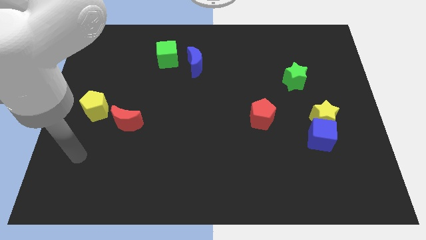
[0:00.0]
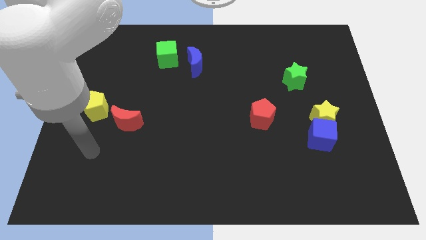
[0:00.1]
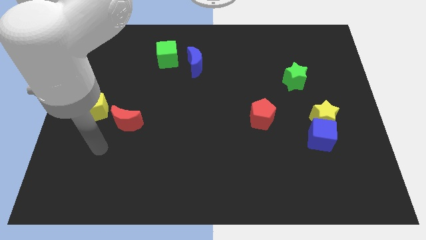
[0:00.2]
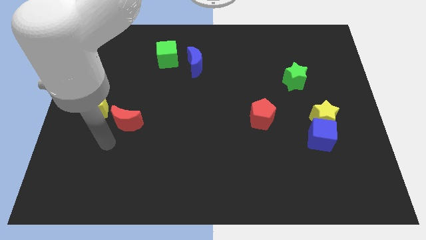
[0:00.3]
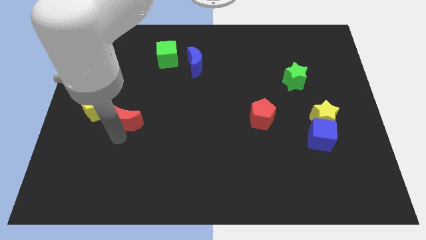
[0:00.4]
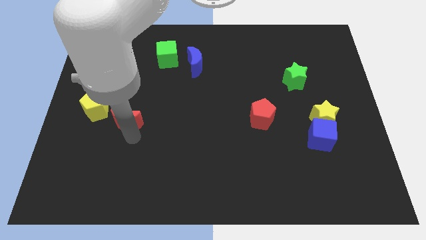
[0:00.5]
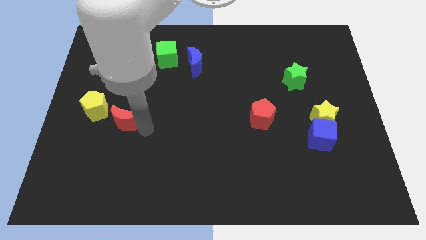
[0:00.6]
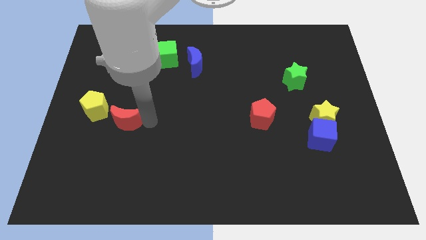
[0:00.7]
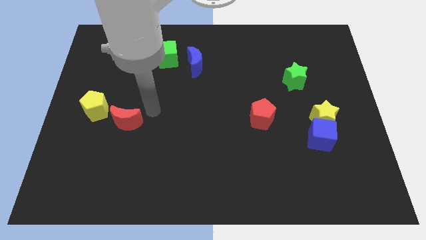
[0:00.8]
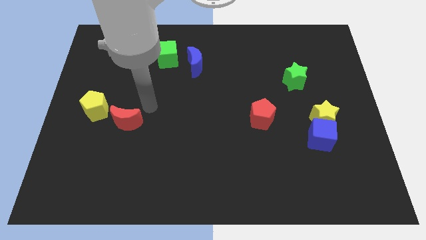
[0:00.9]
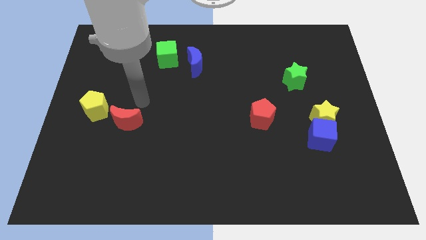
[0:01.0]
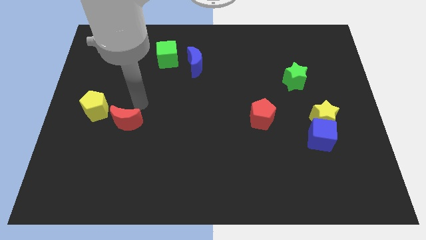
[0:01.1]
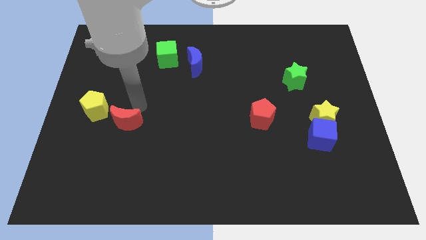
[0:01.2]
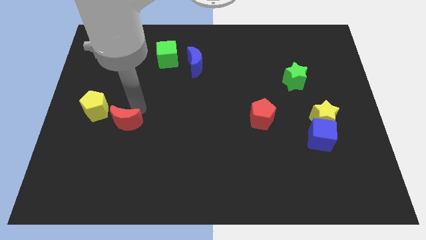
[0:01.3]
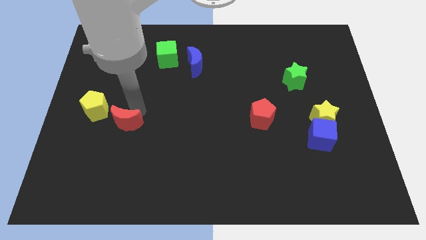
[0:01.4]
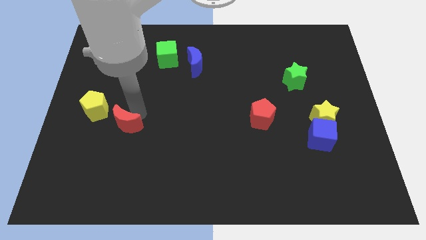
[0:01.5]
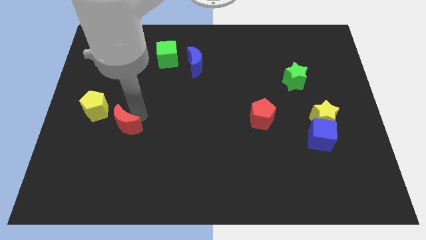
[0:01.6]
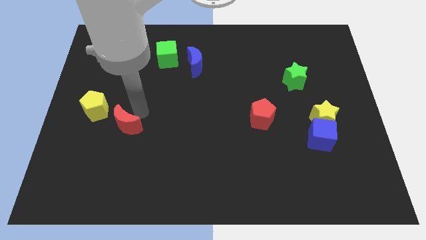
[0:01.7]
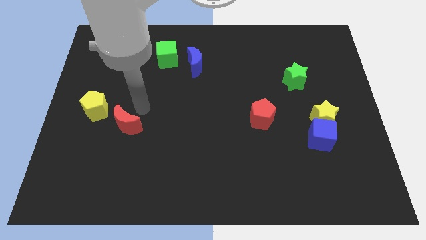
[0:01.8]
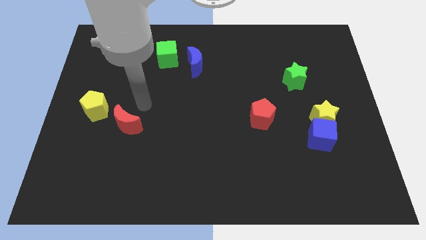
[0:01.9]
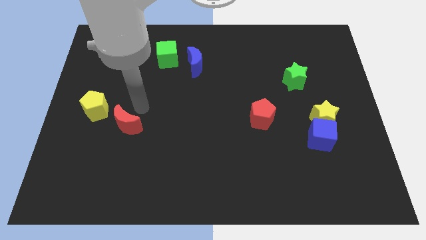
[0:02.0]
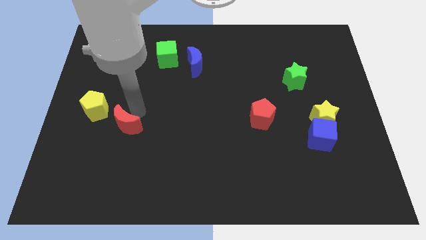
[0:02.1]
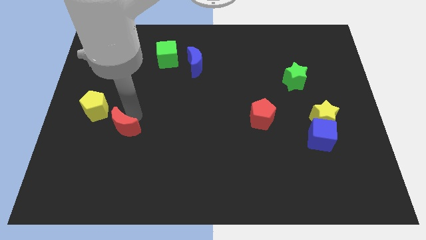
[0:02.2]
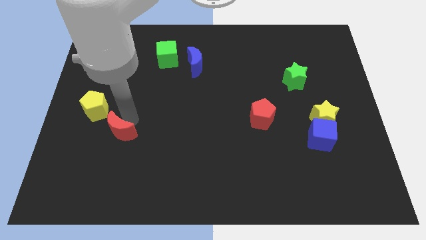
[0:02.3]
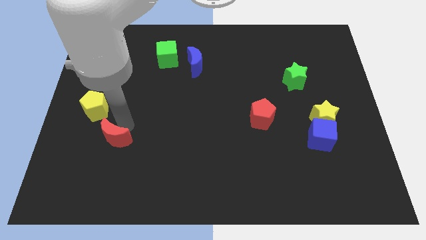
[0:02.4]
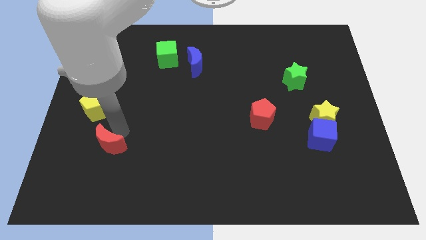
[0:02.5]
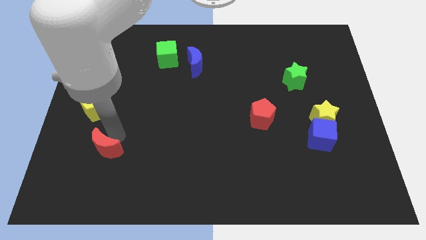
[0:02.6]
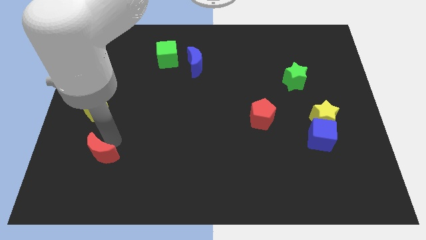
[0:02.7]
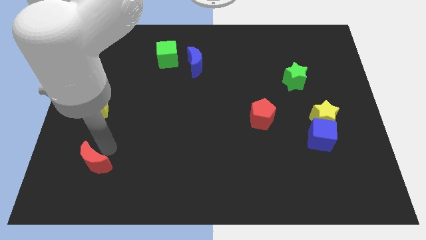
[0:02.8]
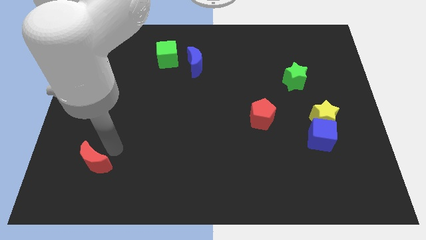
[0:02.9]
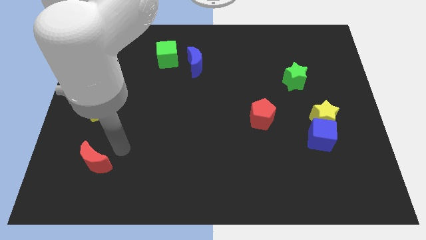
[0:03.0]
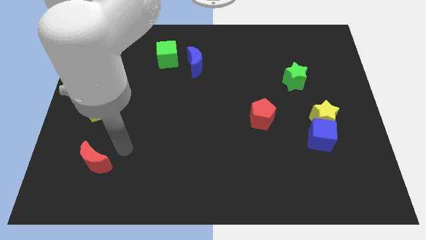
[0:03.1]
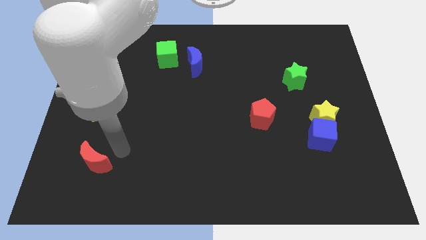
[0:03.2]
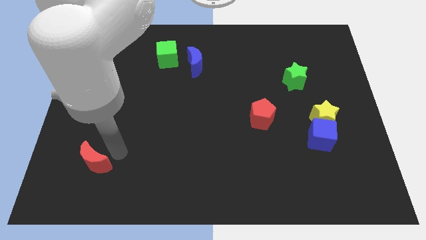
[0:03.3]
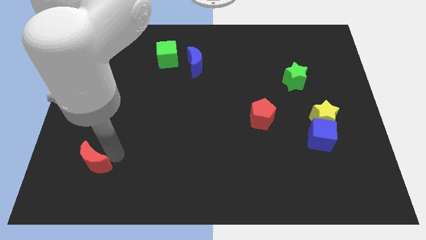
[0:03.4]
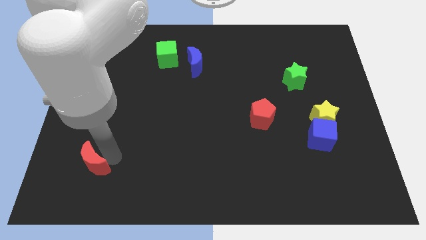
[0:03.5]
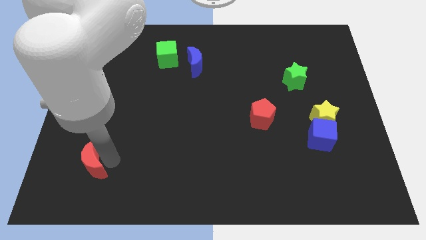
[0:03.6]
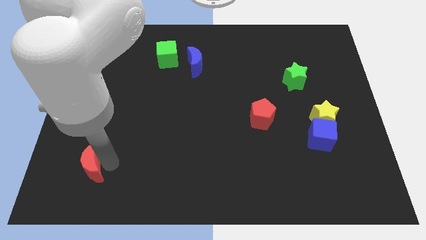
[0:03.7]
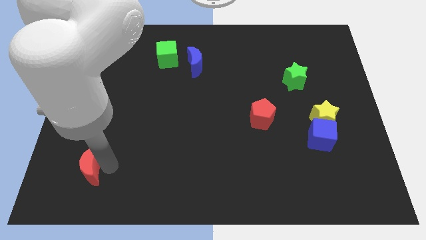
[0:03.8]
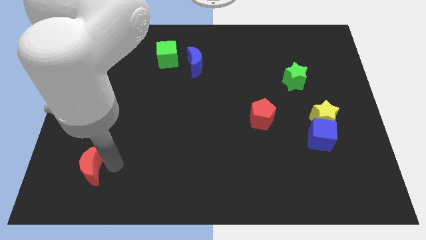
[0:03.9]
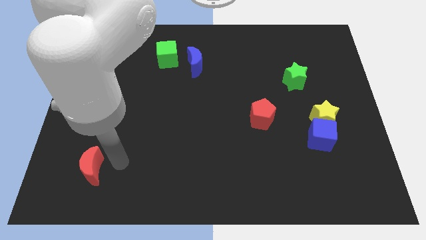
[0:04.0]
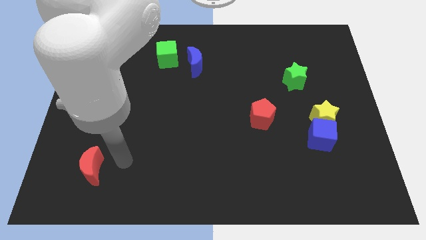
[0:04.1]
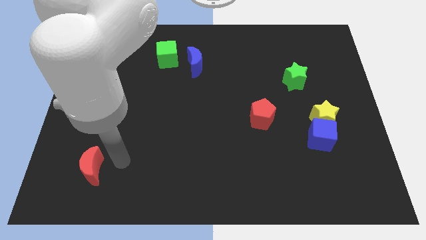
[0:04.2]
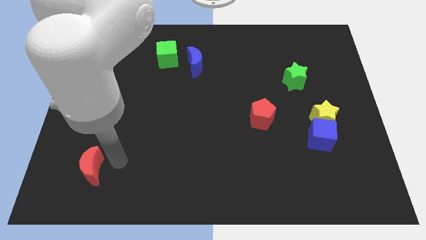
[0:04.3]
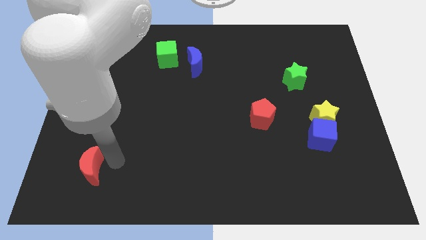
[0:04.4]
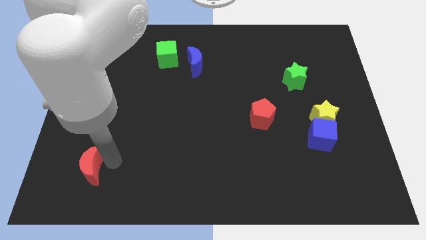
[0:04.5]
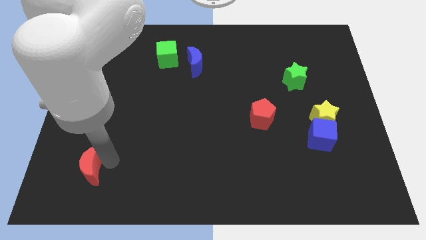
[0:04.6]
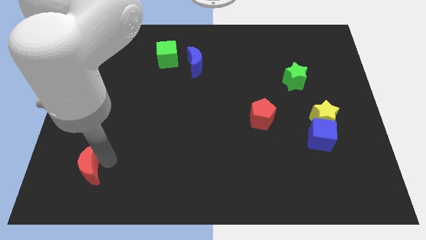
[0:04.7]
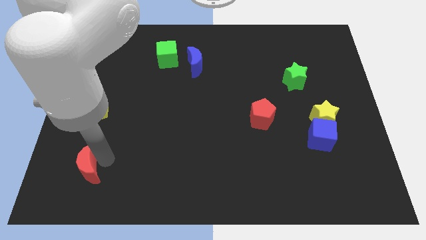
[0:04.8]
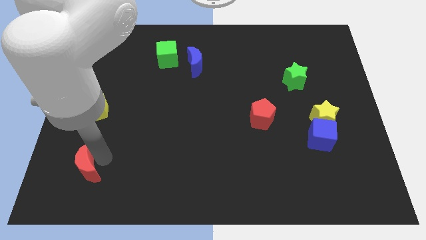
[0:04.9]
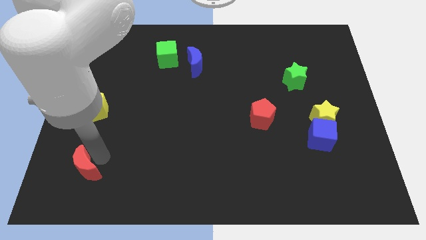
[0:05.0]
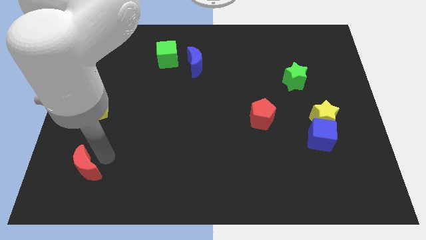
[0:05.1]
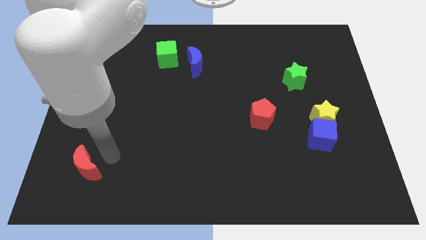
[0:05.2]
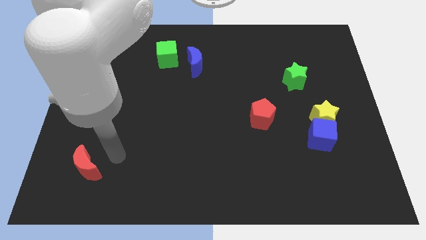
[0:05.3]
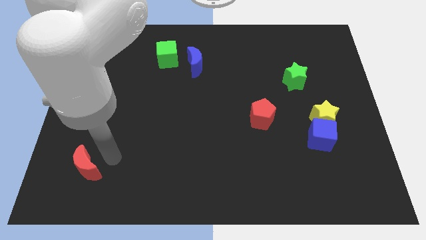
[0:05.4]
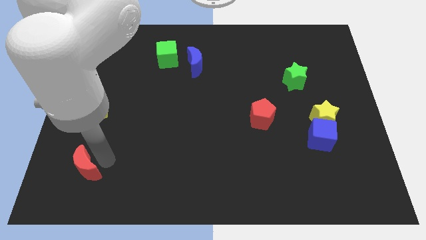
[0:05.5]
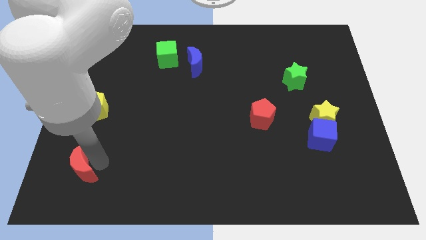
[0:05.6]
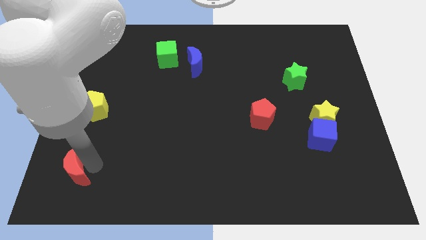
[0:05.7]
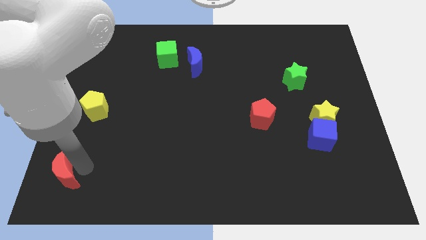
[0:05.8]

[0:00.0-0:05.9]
put the red moon to the bottom left
